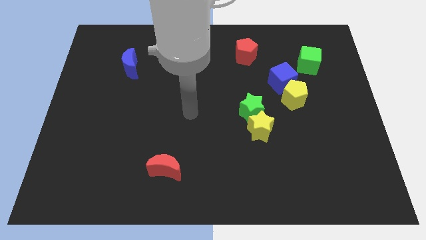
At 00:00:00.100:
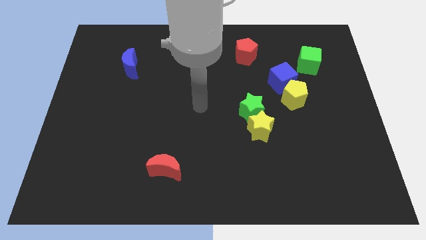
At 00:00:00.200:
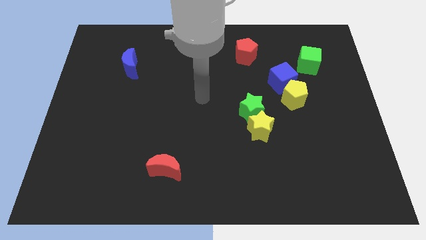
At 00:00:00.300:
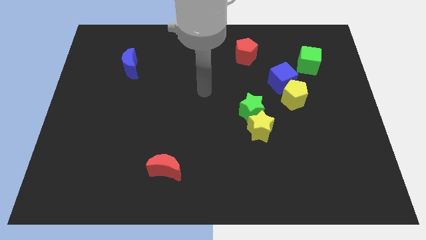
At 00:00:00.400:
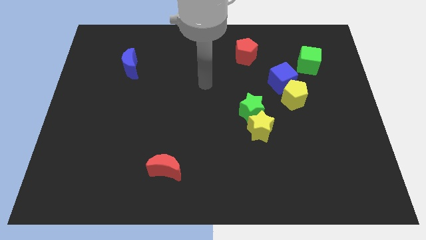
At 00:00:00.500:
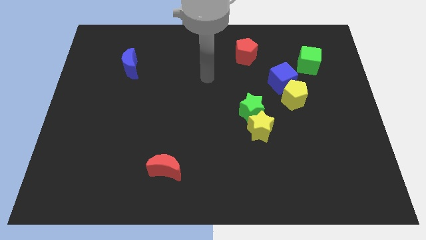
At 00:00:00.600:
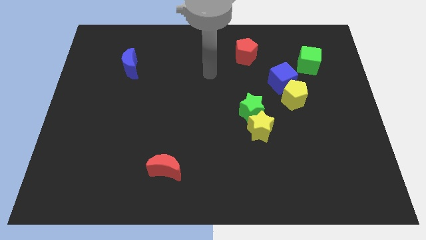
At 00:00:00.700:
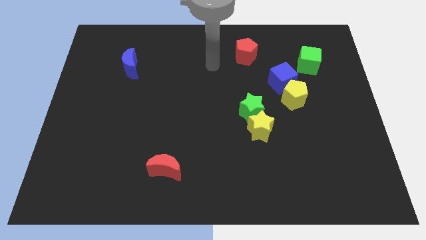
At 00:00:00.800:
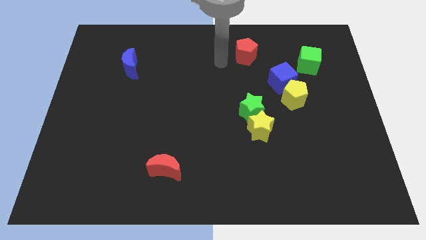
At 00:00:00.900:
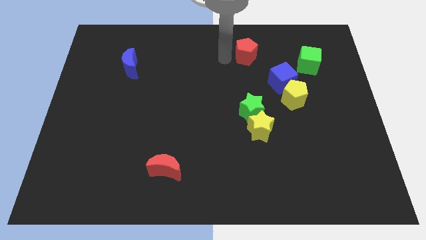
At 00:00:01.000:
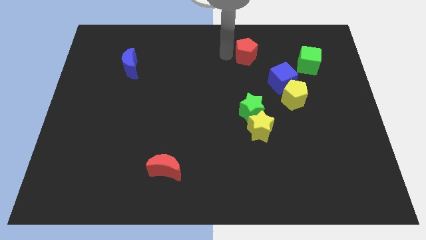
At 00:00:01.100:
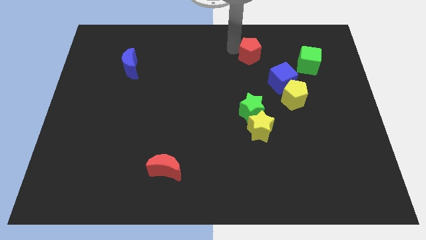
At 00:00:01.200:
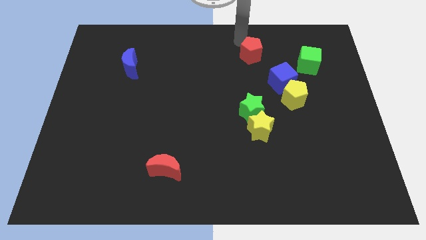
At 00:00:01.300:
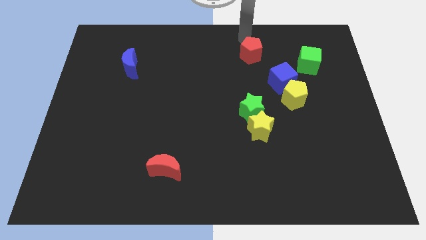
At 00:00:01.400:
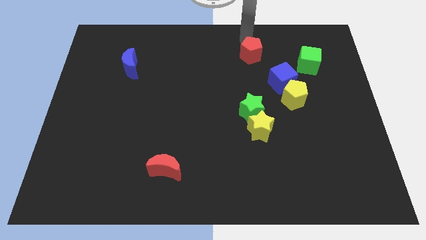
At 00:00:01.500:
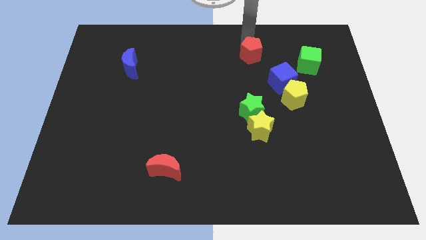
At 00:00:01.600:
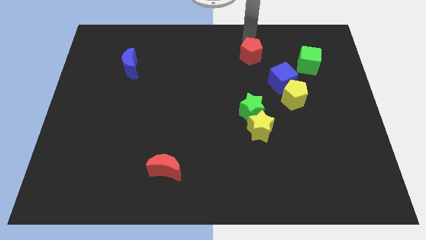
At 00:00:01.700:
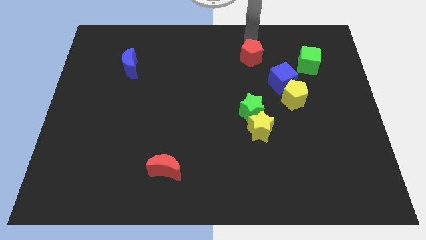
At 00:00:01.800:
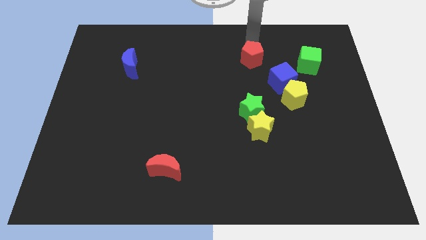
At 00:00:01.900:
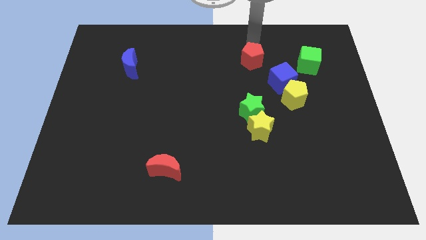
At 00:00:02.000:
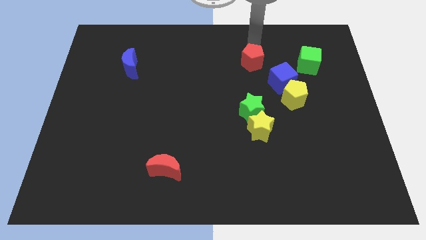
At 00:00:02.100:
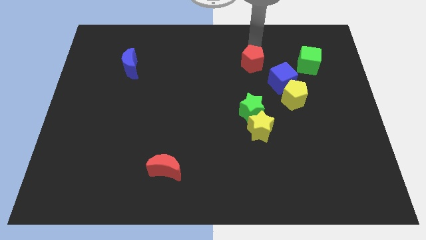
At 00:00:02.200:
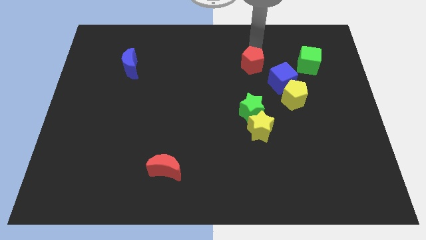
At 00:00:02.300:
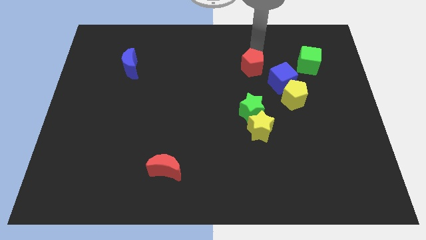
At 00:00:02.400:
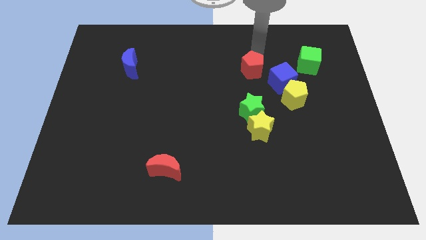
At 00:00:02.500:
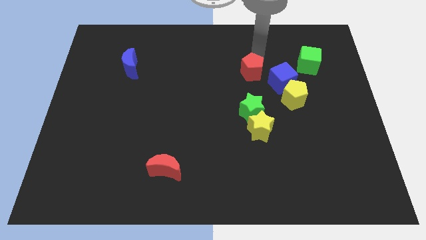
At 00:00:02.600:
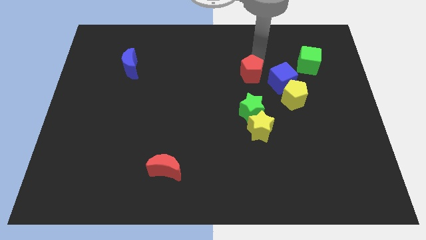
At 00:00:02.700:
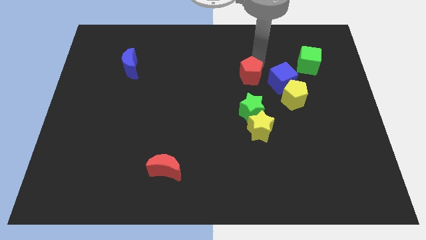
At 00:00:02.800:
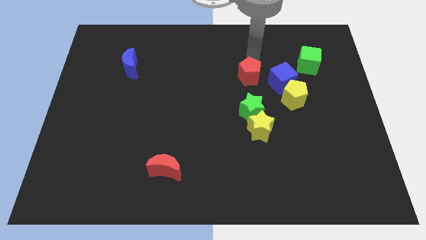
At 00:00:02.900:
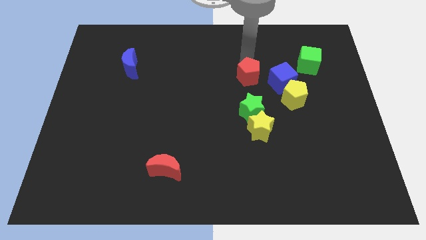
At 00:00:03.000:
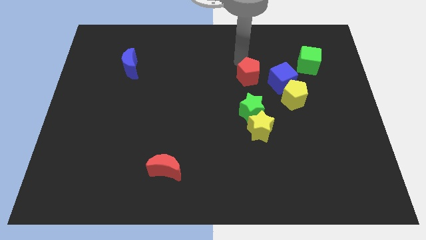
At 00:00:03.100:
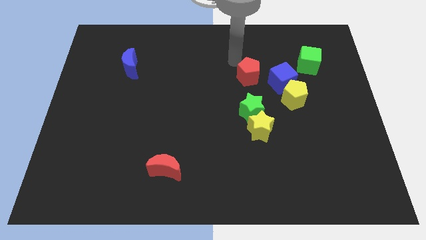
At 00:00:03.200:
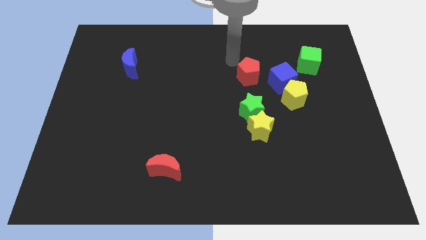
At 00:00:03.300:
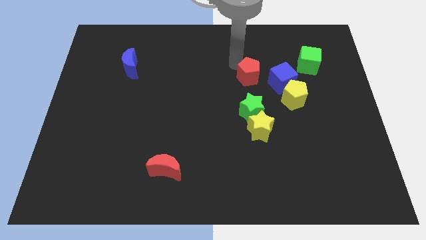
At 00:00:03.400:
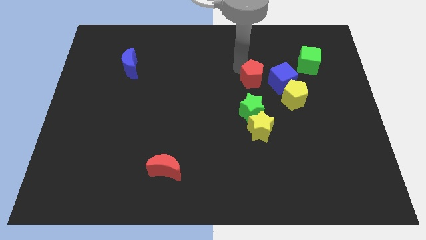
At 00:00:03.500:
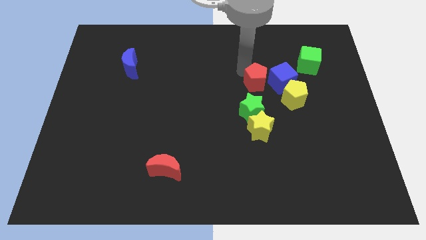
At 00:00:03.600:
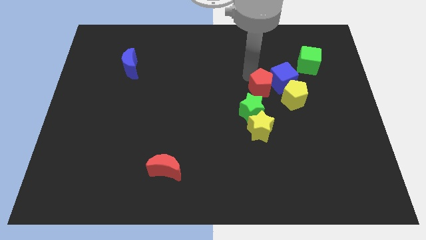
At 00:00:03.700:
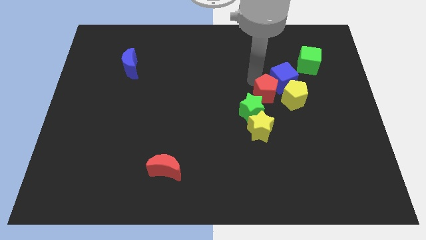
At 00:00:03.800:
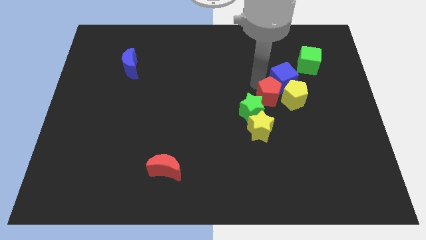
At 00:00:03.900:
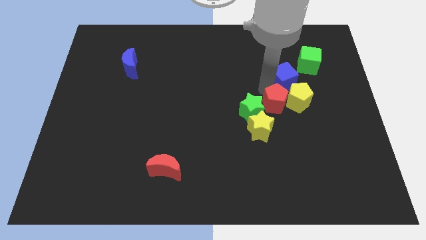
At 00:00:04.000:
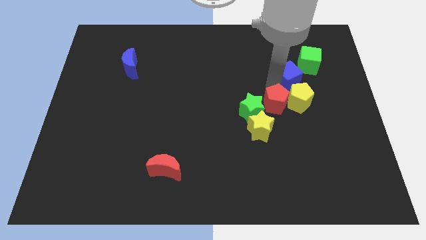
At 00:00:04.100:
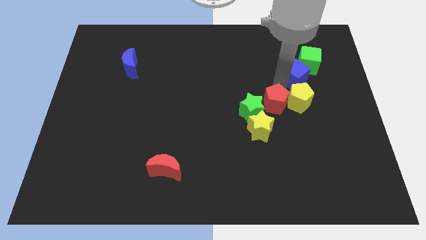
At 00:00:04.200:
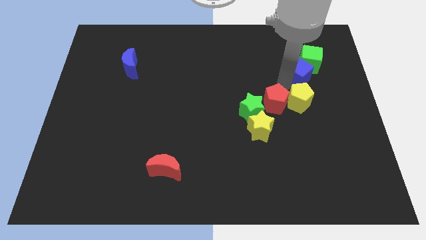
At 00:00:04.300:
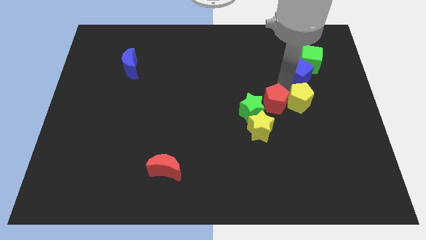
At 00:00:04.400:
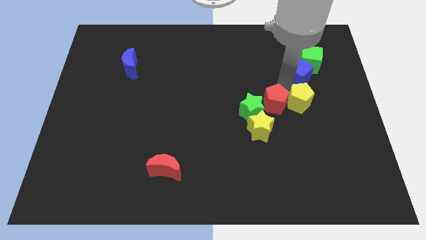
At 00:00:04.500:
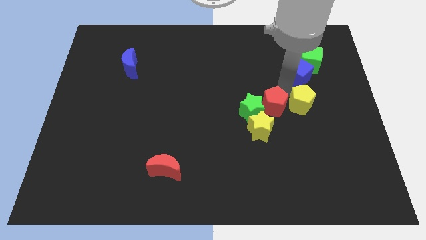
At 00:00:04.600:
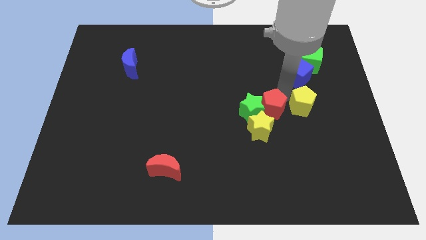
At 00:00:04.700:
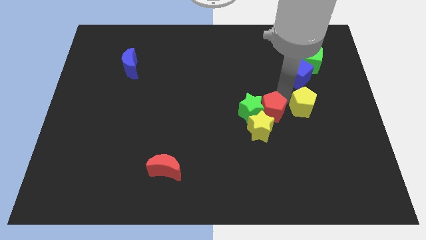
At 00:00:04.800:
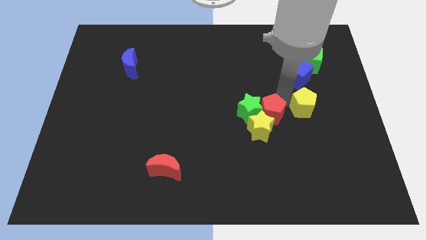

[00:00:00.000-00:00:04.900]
slide the red pentagon next to the yellow star

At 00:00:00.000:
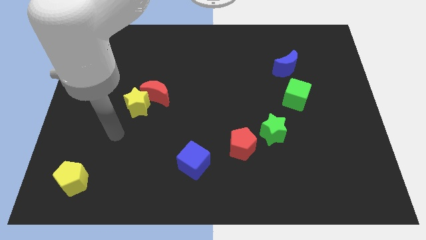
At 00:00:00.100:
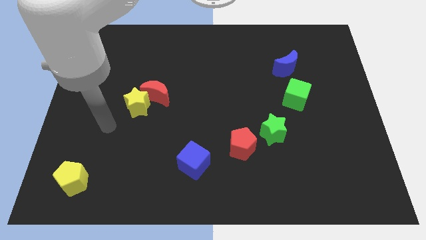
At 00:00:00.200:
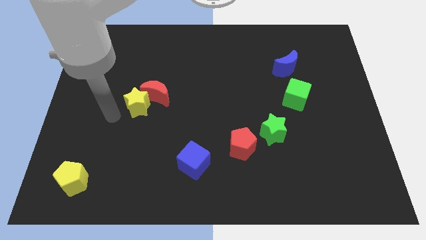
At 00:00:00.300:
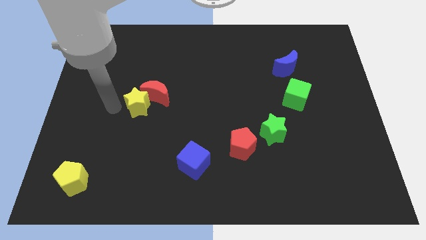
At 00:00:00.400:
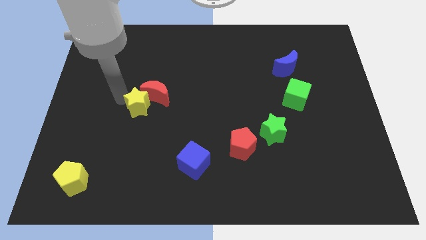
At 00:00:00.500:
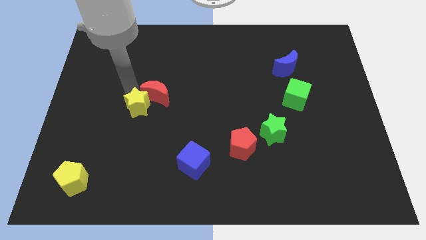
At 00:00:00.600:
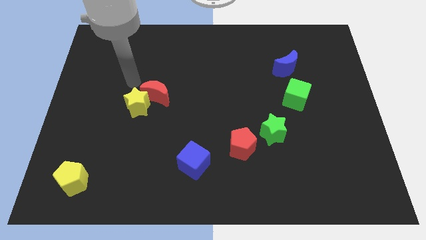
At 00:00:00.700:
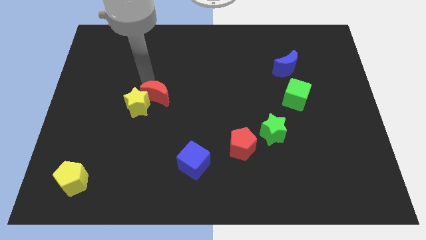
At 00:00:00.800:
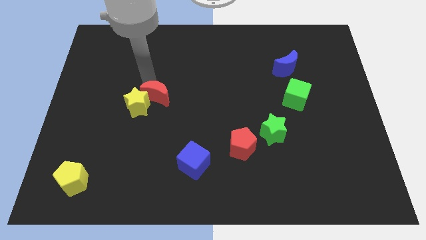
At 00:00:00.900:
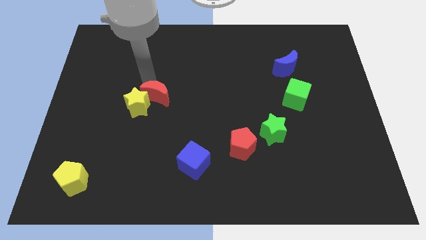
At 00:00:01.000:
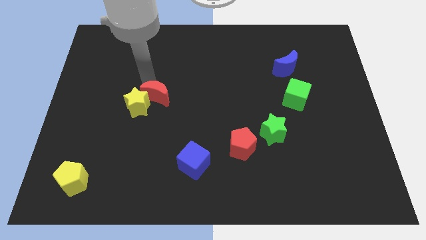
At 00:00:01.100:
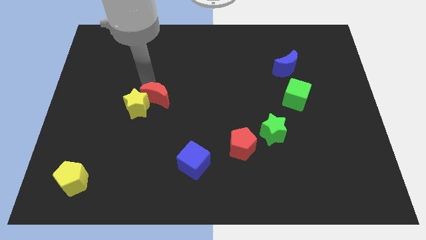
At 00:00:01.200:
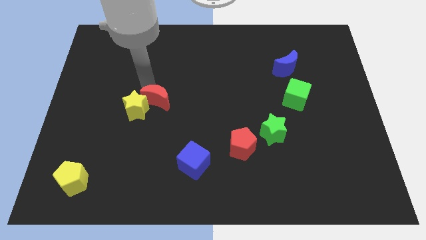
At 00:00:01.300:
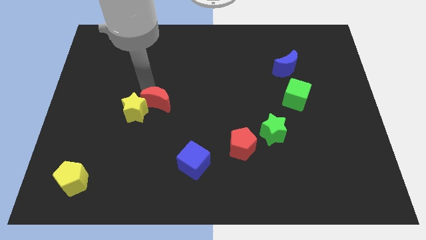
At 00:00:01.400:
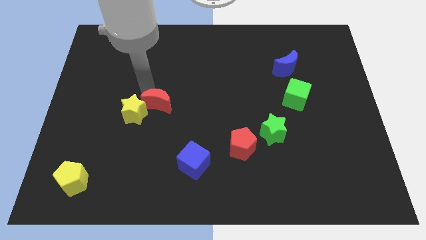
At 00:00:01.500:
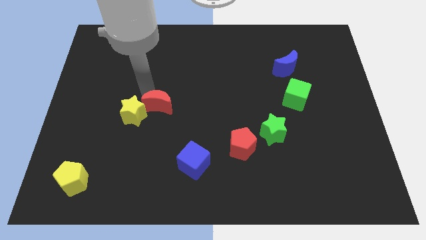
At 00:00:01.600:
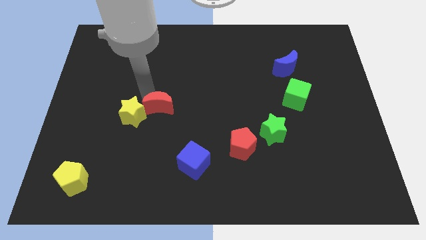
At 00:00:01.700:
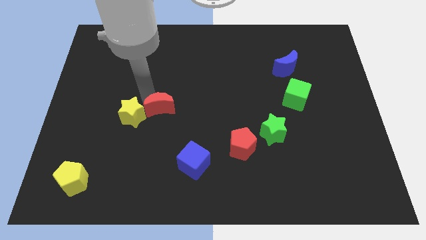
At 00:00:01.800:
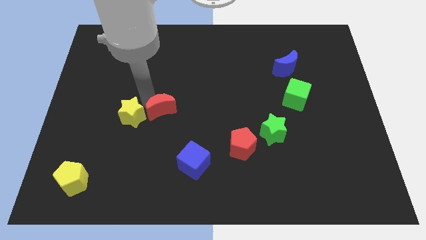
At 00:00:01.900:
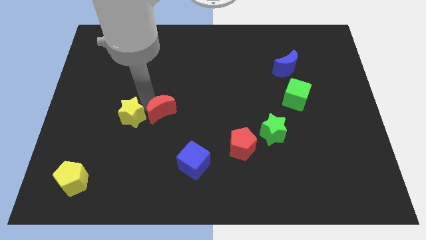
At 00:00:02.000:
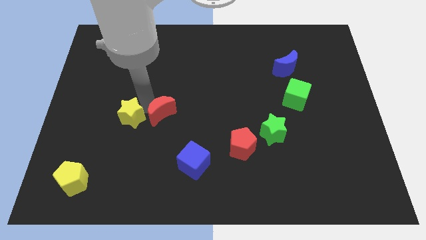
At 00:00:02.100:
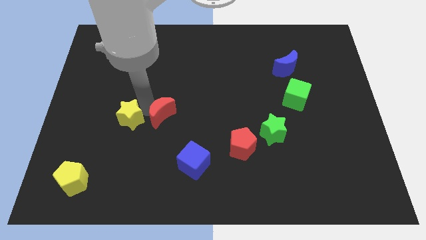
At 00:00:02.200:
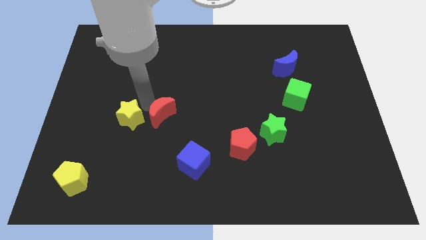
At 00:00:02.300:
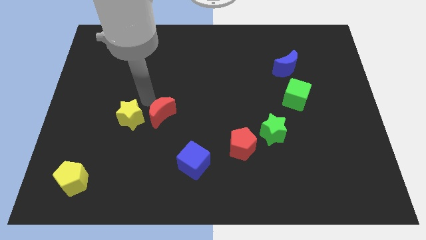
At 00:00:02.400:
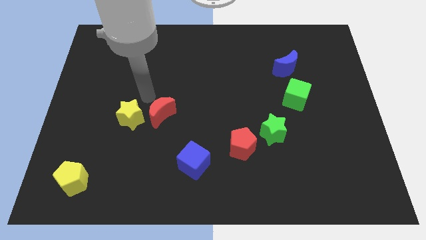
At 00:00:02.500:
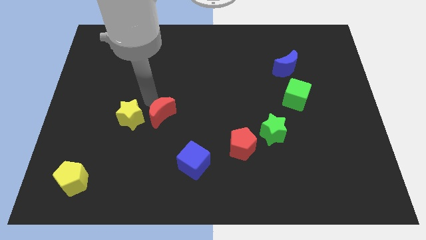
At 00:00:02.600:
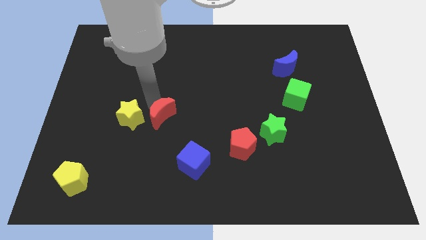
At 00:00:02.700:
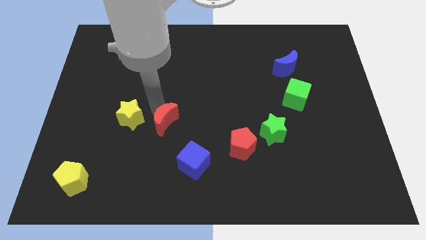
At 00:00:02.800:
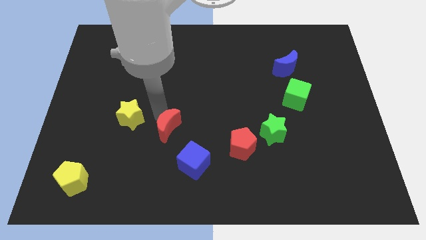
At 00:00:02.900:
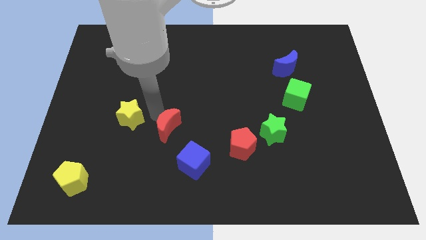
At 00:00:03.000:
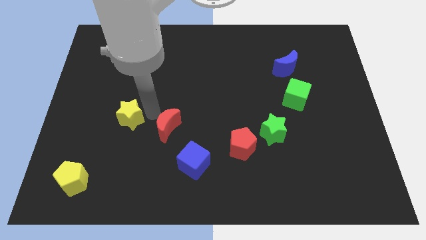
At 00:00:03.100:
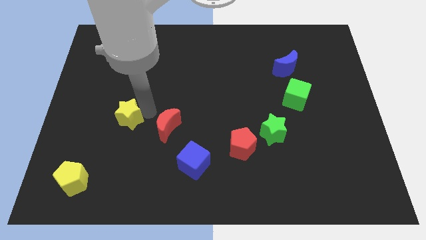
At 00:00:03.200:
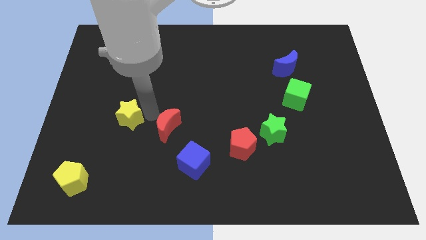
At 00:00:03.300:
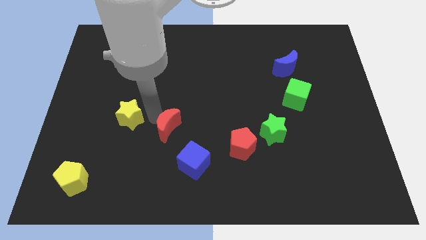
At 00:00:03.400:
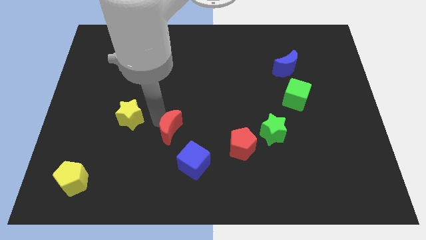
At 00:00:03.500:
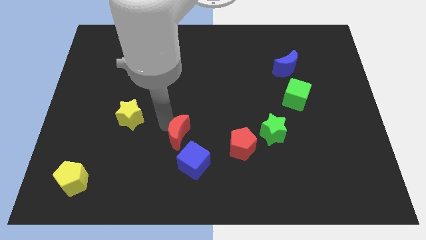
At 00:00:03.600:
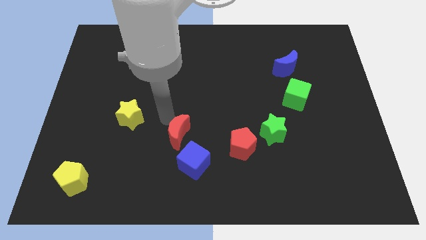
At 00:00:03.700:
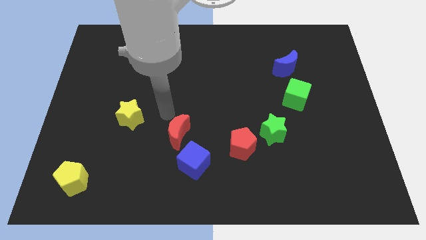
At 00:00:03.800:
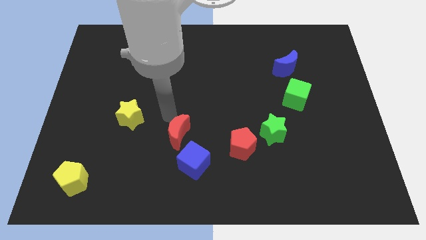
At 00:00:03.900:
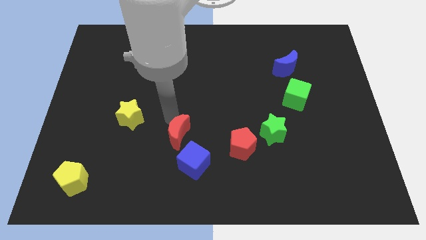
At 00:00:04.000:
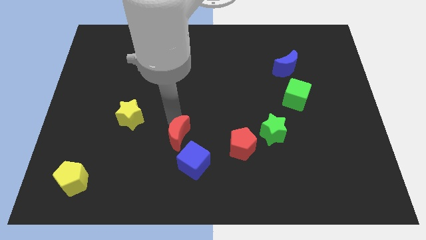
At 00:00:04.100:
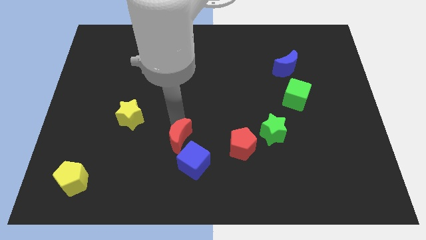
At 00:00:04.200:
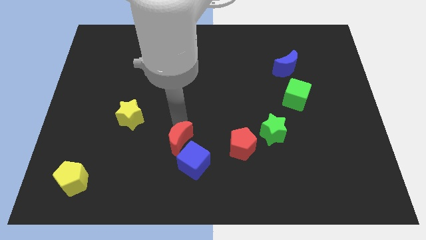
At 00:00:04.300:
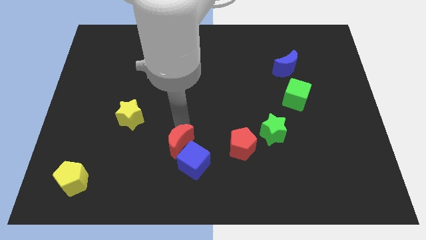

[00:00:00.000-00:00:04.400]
push the red moon towards the blue cube
